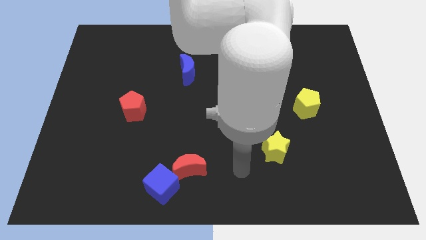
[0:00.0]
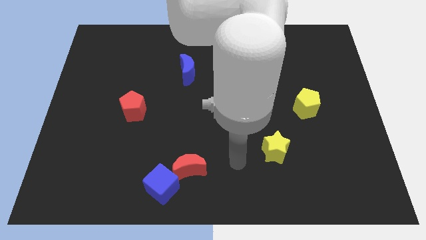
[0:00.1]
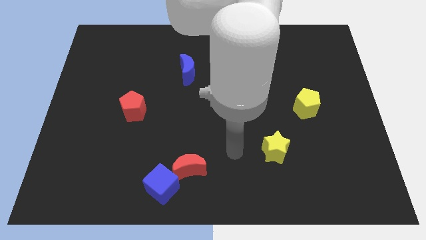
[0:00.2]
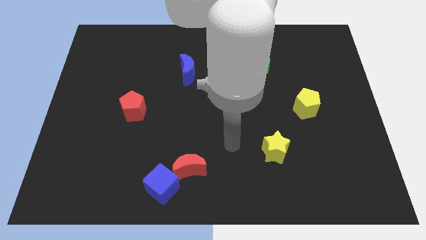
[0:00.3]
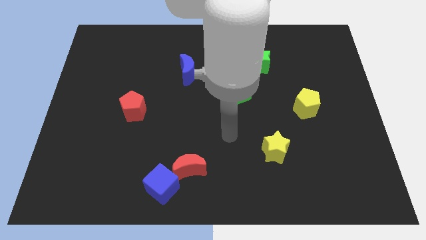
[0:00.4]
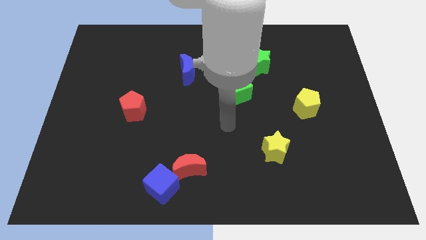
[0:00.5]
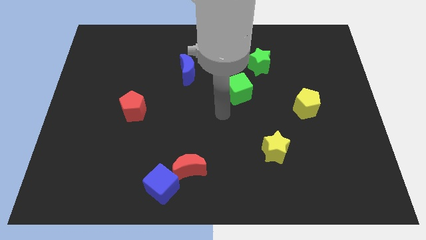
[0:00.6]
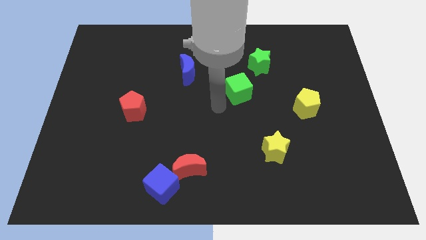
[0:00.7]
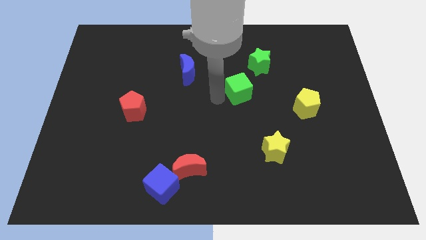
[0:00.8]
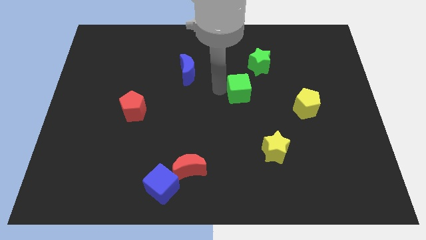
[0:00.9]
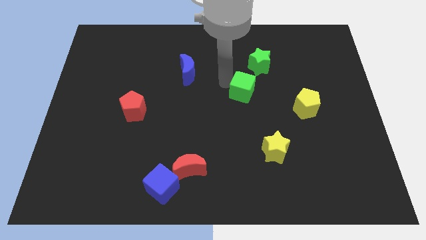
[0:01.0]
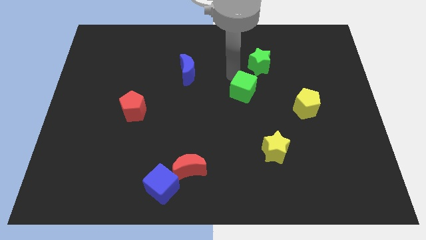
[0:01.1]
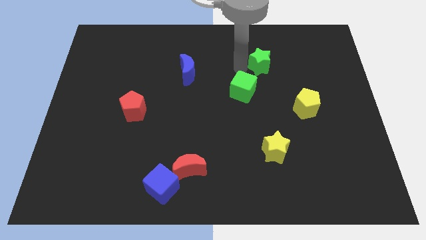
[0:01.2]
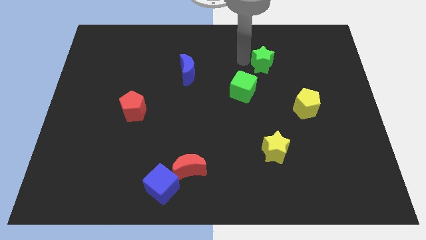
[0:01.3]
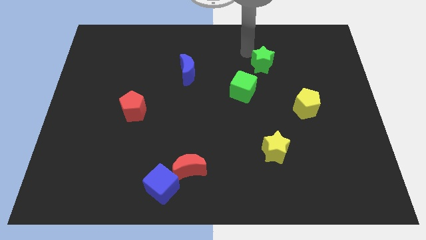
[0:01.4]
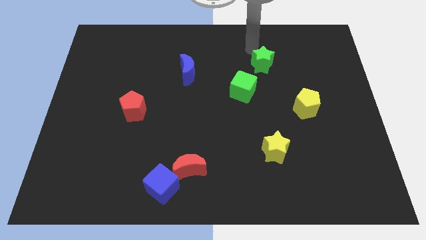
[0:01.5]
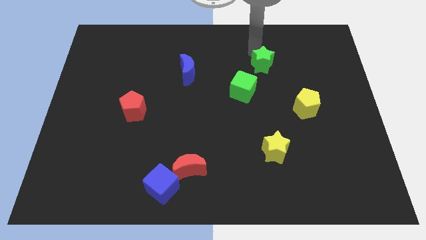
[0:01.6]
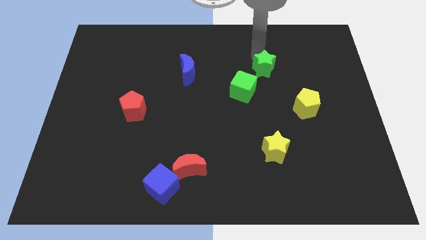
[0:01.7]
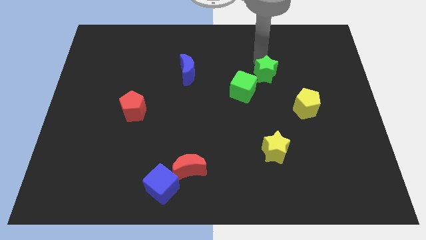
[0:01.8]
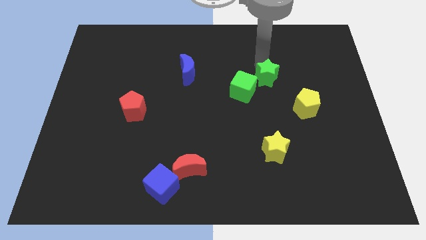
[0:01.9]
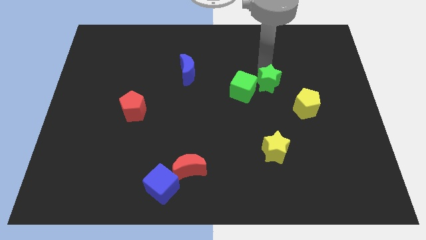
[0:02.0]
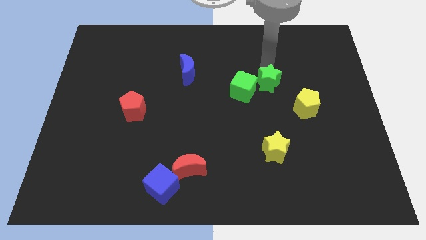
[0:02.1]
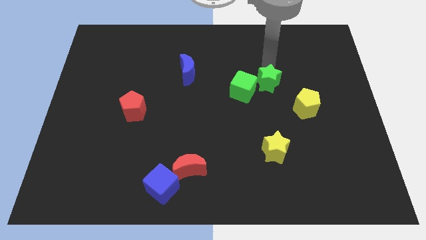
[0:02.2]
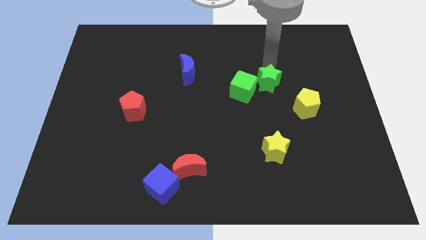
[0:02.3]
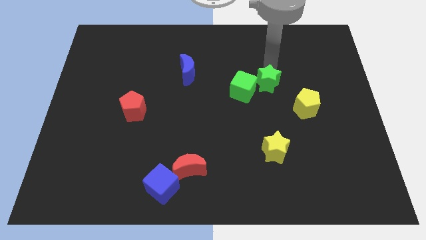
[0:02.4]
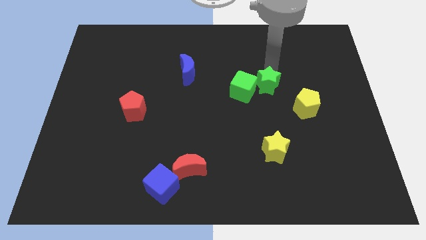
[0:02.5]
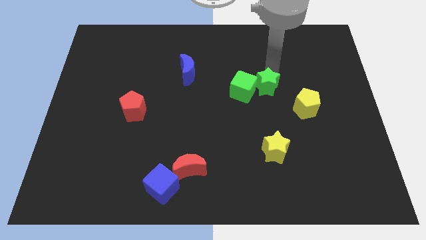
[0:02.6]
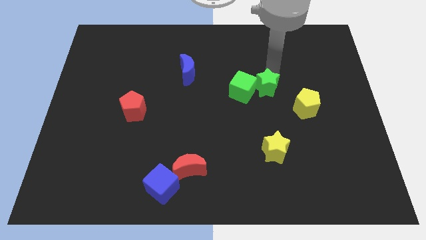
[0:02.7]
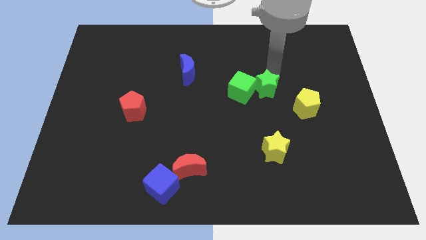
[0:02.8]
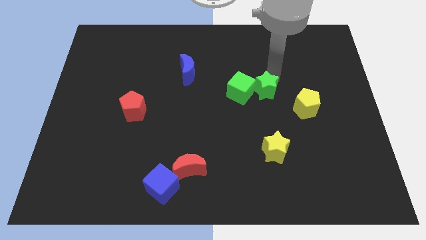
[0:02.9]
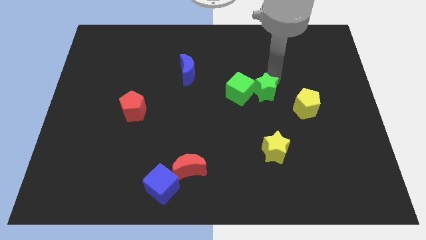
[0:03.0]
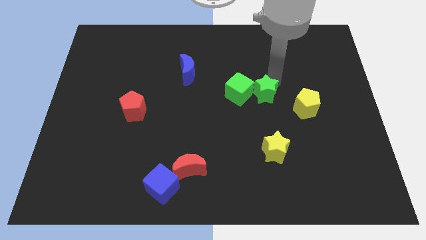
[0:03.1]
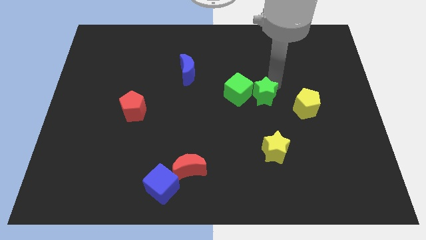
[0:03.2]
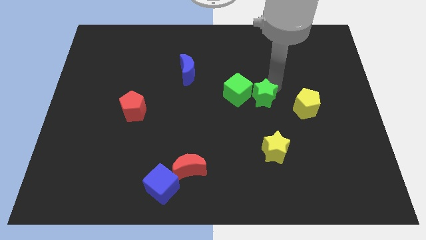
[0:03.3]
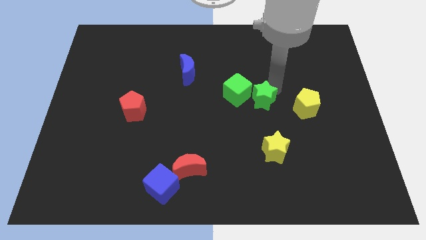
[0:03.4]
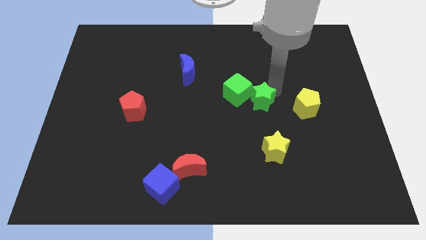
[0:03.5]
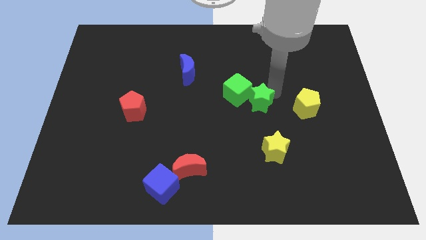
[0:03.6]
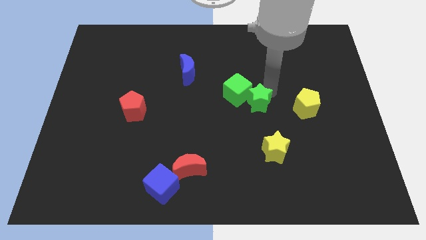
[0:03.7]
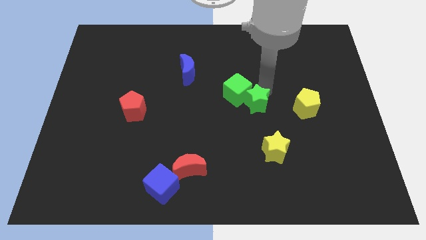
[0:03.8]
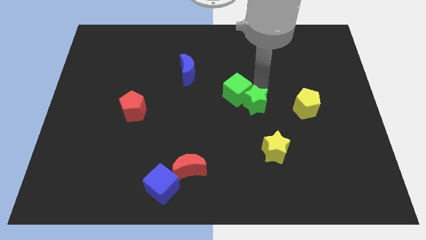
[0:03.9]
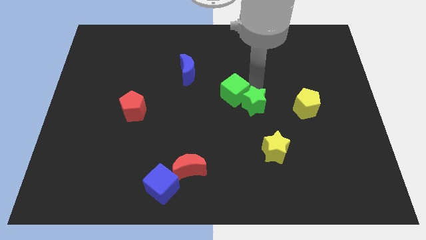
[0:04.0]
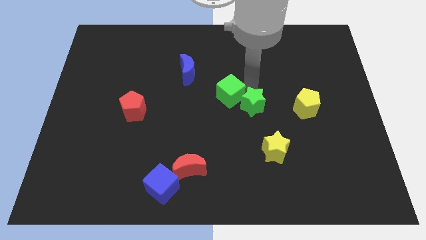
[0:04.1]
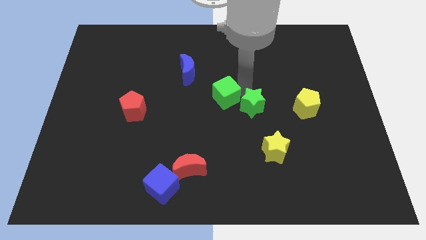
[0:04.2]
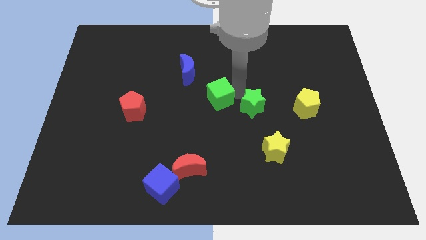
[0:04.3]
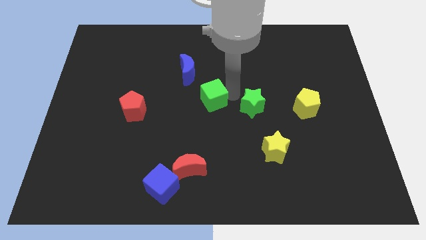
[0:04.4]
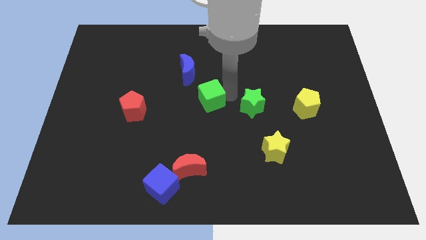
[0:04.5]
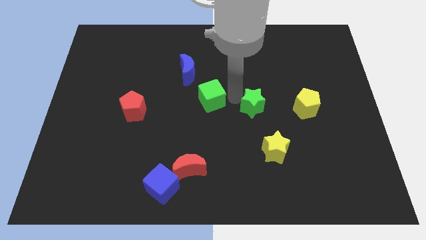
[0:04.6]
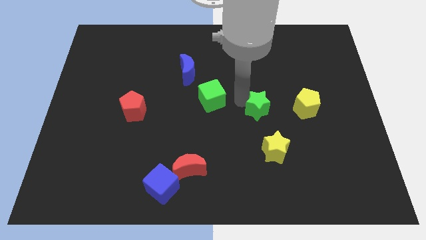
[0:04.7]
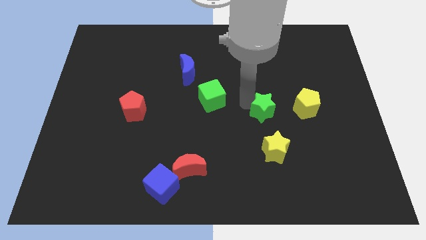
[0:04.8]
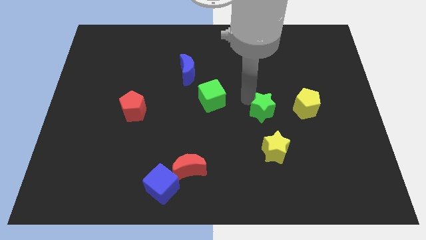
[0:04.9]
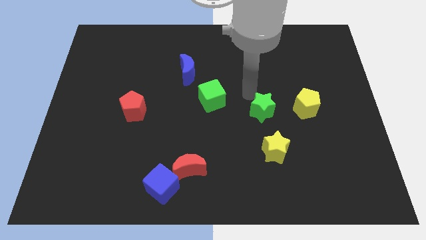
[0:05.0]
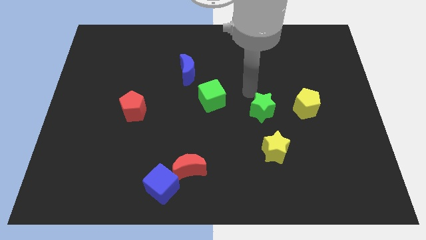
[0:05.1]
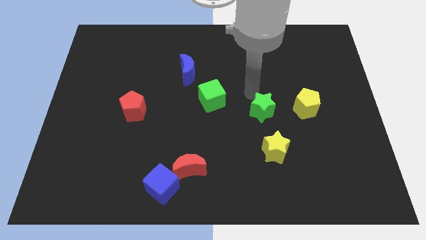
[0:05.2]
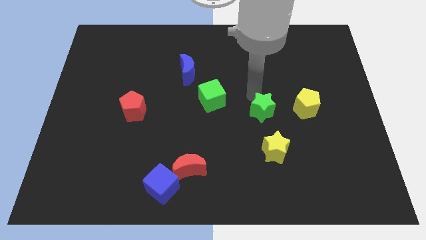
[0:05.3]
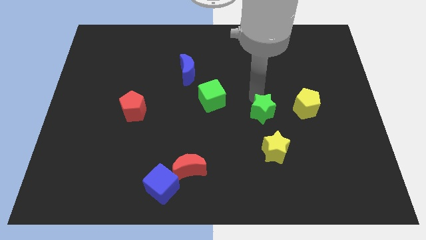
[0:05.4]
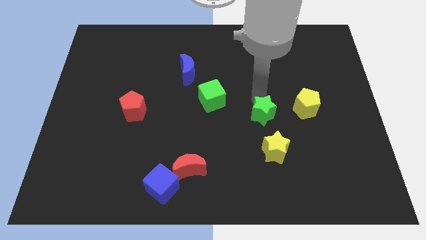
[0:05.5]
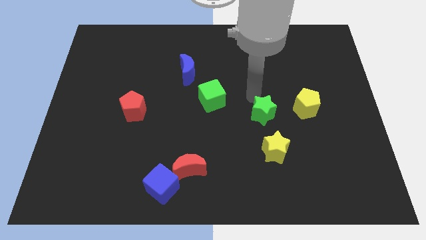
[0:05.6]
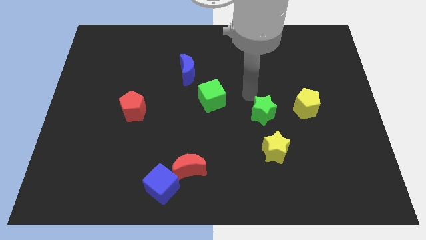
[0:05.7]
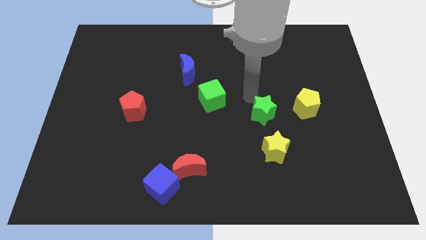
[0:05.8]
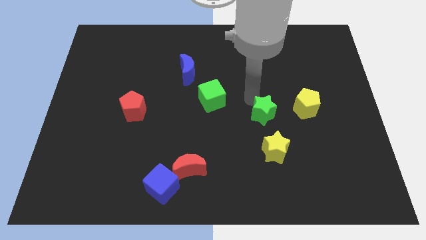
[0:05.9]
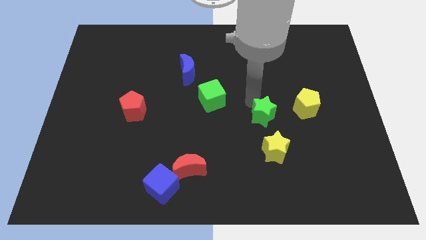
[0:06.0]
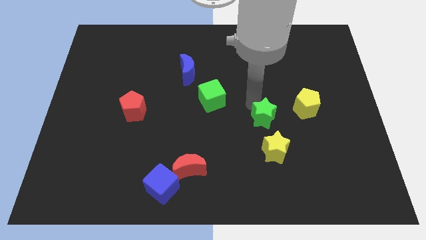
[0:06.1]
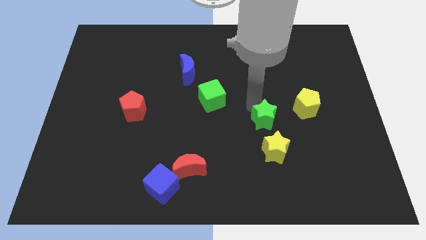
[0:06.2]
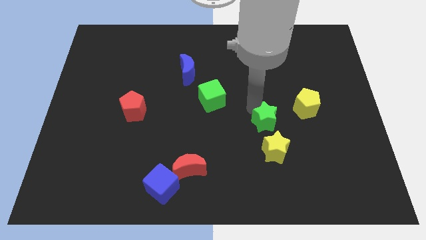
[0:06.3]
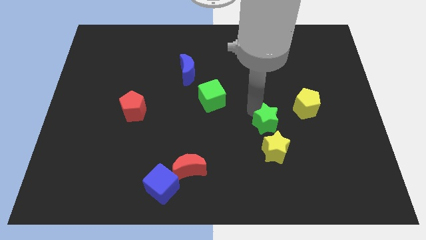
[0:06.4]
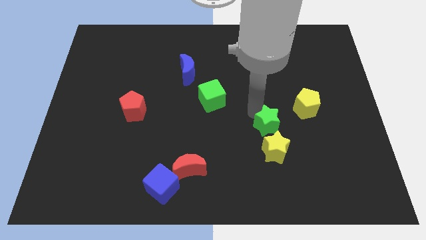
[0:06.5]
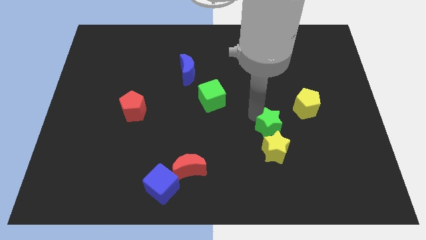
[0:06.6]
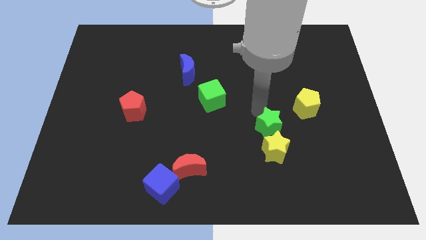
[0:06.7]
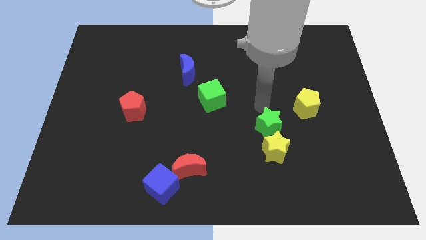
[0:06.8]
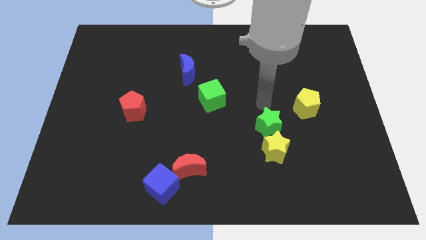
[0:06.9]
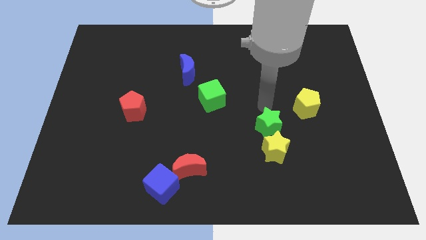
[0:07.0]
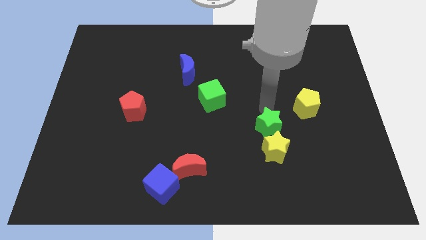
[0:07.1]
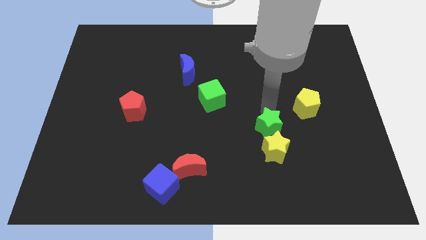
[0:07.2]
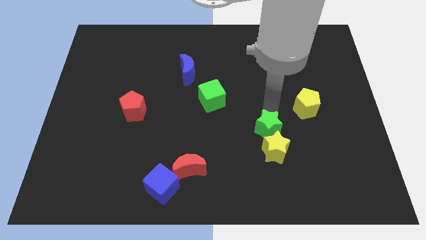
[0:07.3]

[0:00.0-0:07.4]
move the green star close to the yellow star
